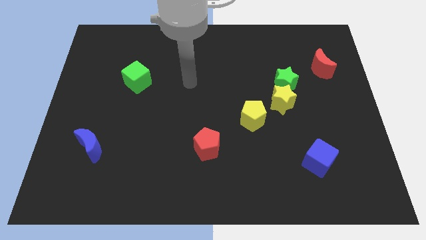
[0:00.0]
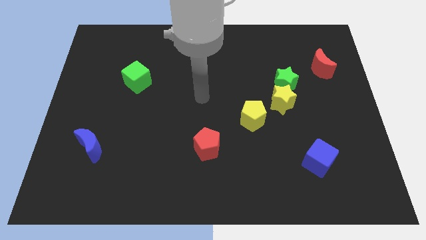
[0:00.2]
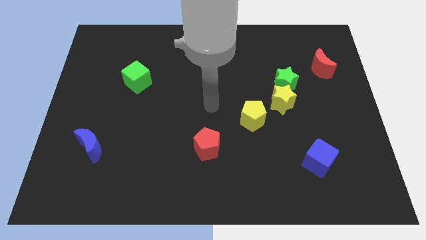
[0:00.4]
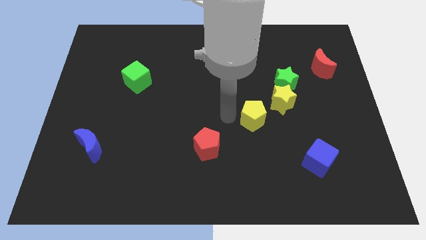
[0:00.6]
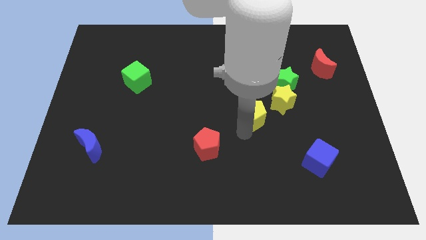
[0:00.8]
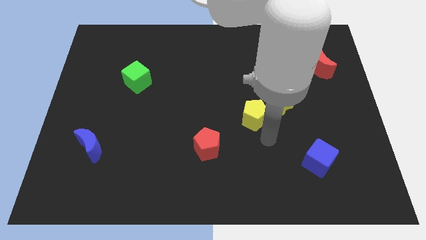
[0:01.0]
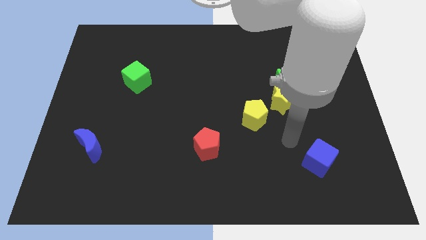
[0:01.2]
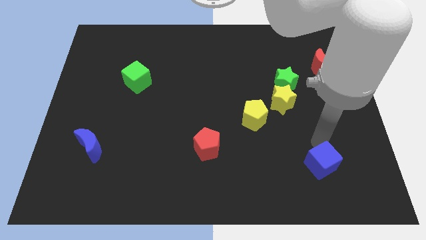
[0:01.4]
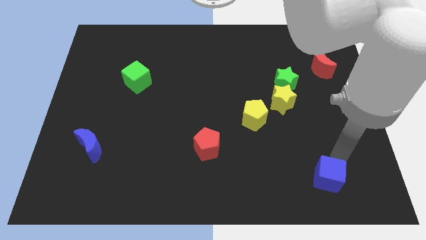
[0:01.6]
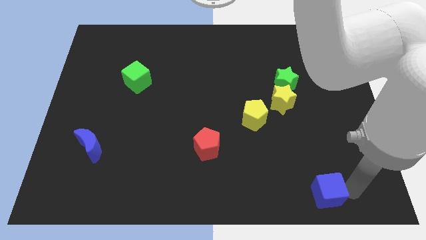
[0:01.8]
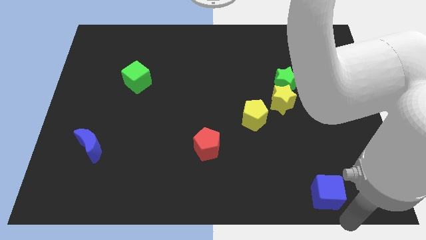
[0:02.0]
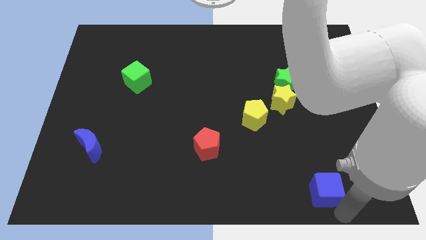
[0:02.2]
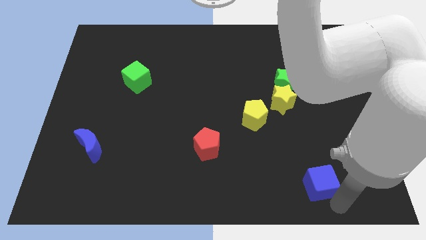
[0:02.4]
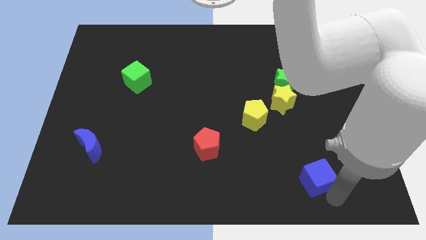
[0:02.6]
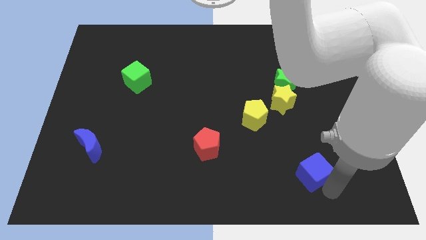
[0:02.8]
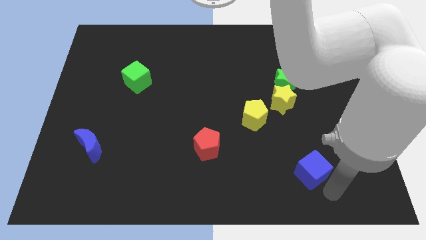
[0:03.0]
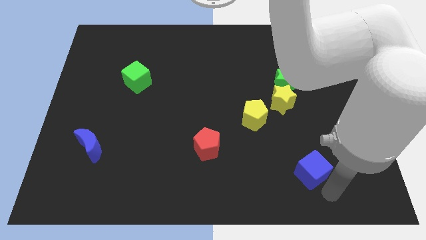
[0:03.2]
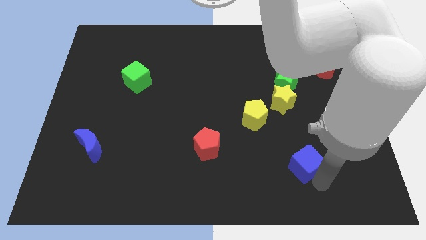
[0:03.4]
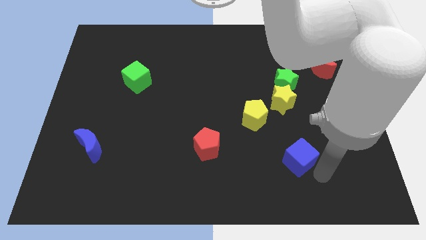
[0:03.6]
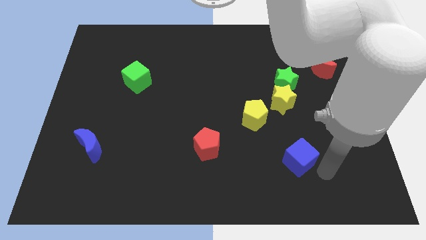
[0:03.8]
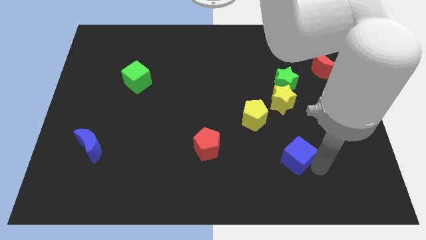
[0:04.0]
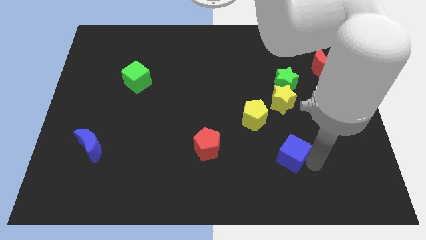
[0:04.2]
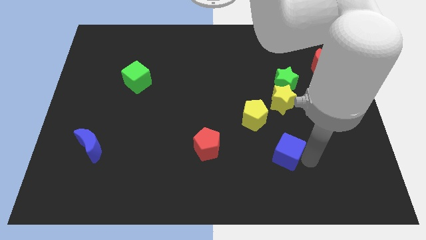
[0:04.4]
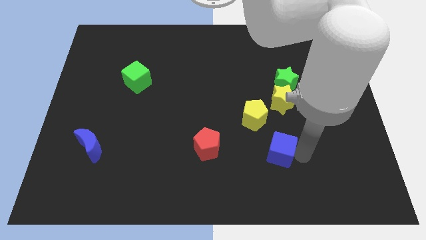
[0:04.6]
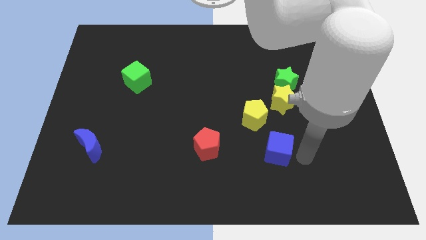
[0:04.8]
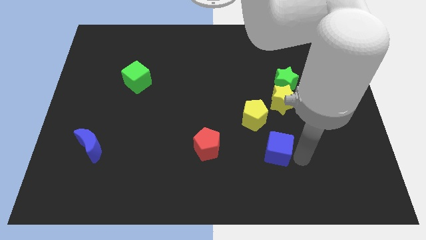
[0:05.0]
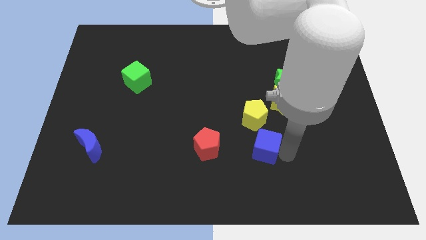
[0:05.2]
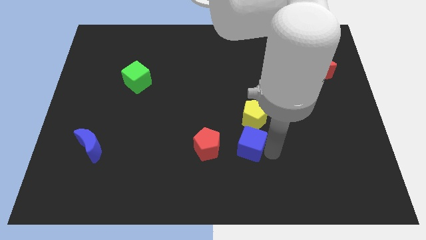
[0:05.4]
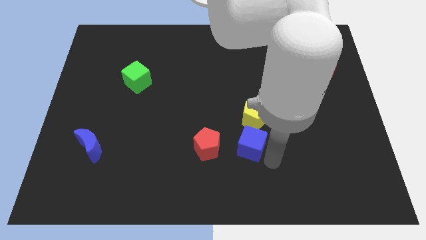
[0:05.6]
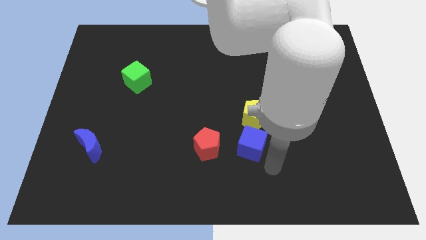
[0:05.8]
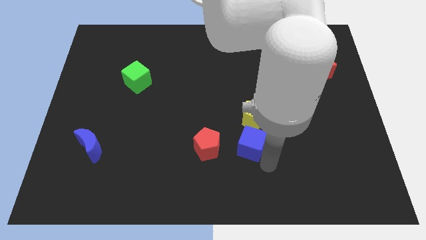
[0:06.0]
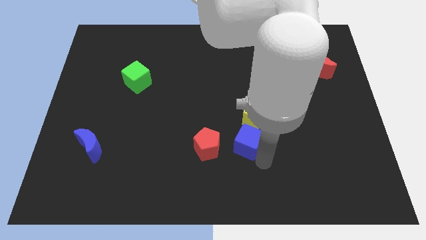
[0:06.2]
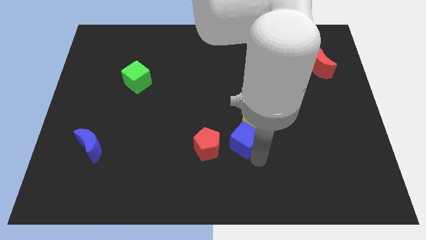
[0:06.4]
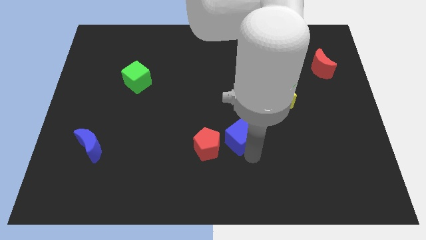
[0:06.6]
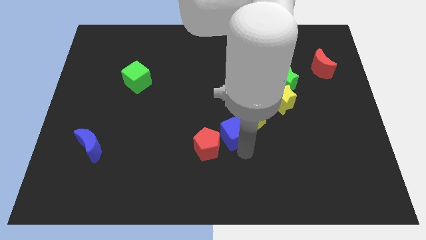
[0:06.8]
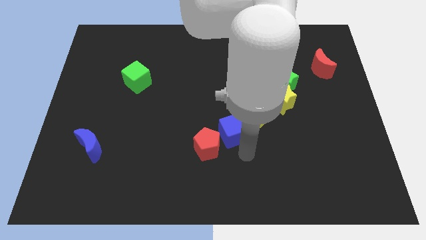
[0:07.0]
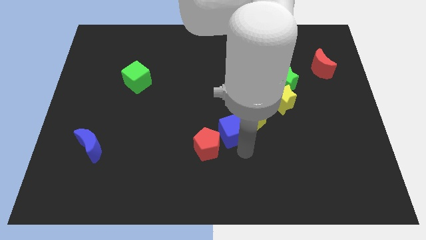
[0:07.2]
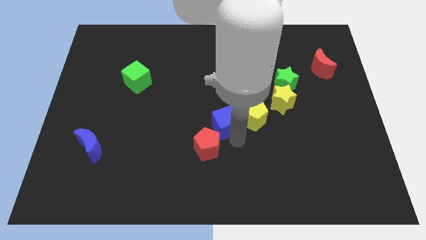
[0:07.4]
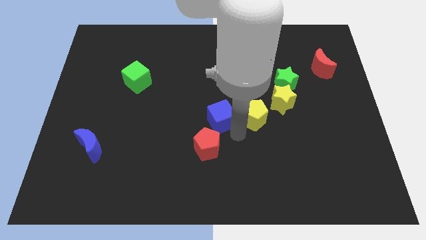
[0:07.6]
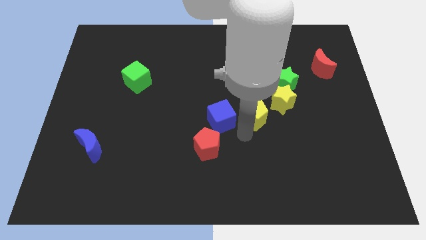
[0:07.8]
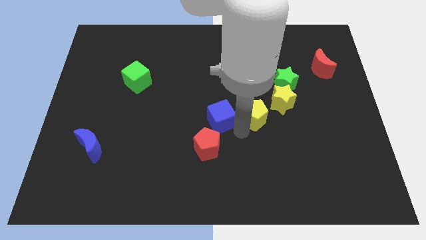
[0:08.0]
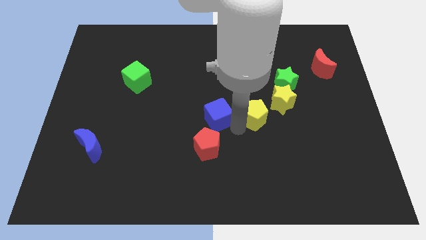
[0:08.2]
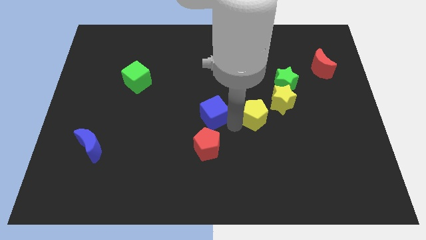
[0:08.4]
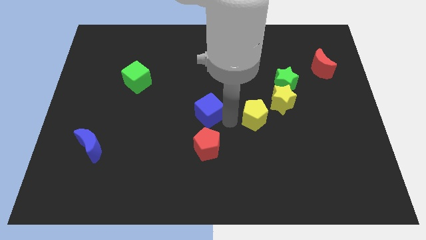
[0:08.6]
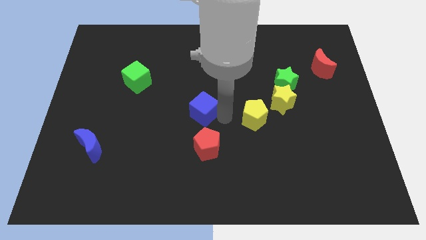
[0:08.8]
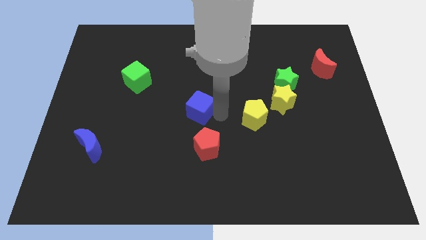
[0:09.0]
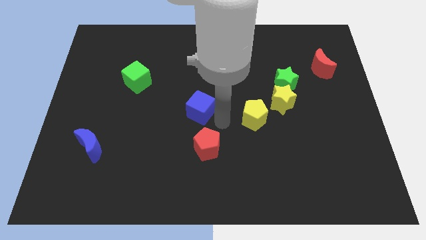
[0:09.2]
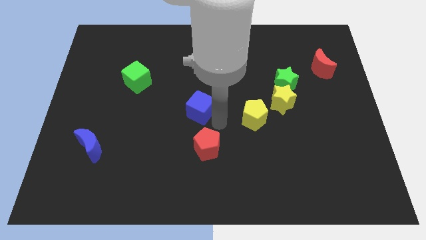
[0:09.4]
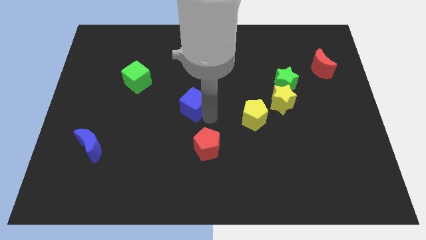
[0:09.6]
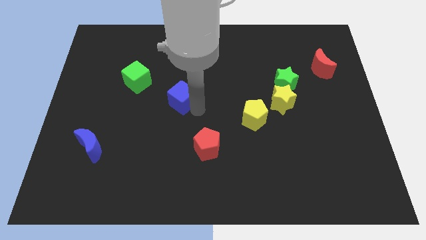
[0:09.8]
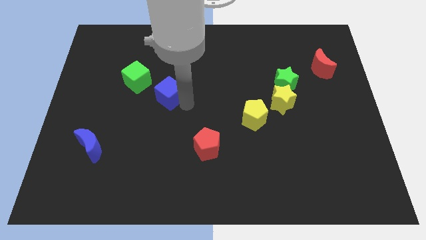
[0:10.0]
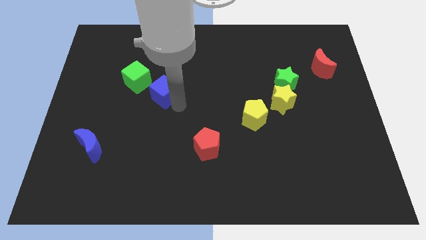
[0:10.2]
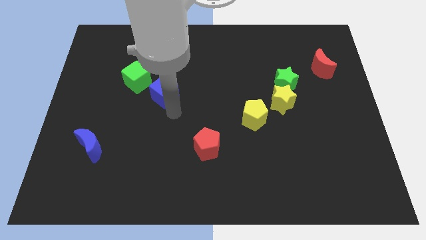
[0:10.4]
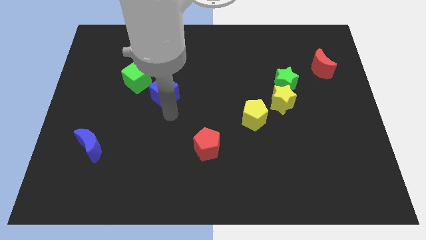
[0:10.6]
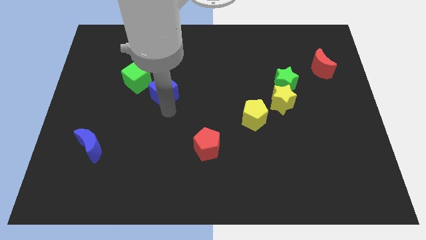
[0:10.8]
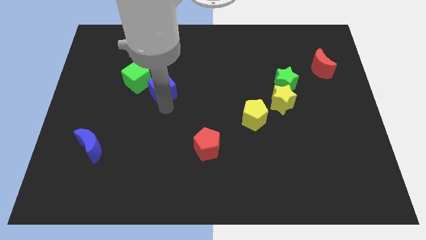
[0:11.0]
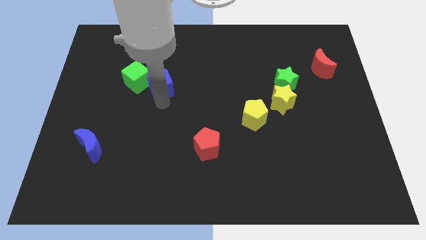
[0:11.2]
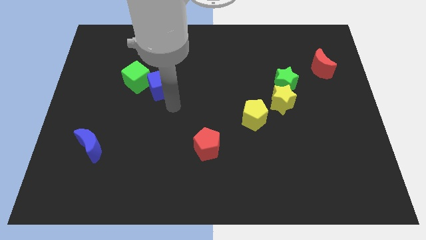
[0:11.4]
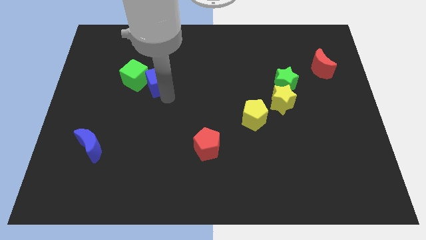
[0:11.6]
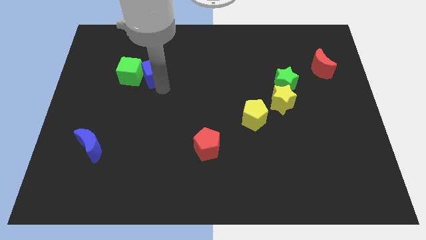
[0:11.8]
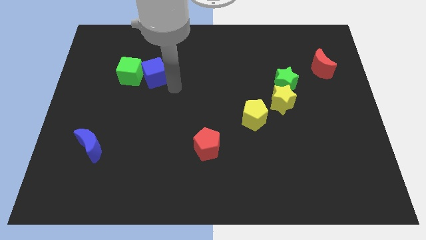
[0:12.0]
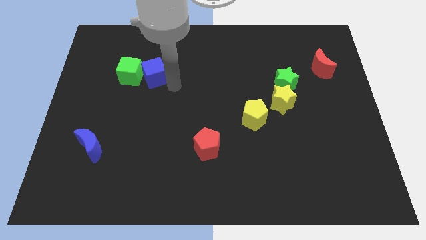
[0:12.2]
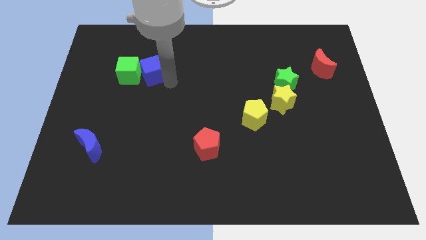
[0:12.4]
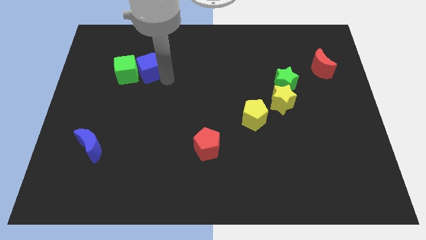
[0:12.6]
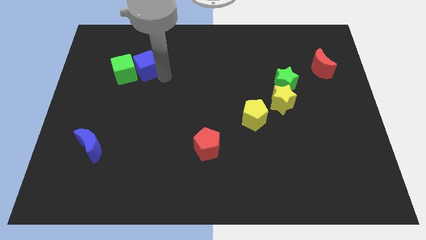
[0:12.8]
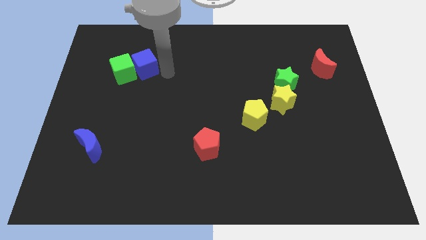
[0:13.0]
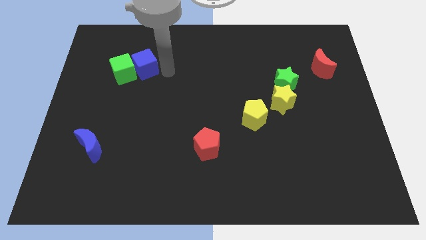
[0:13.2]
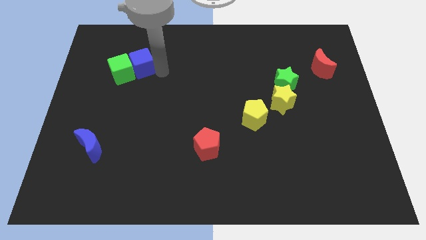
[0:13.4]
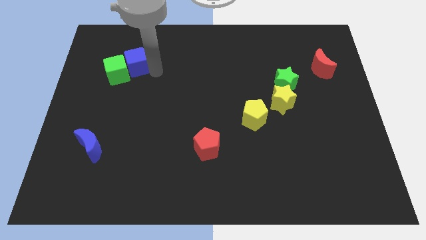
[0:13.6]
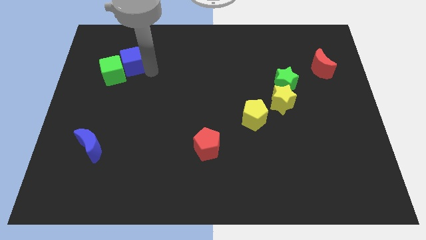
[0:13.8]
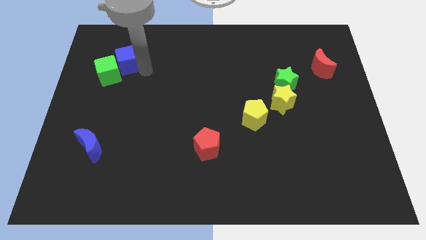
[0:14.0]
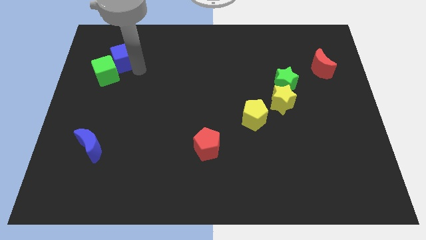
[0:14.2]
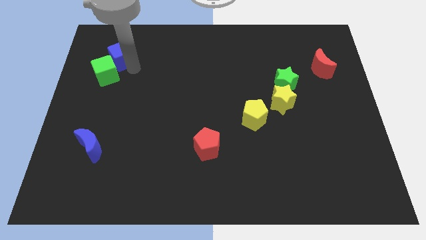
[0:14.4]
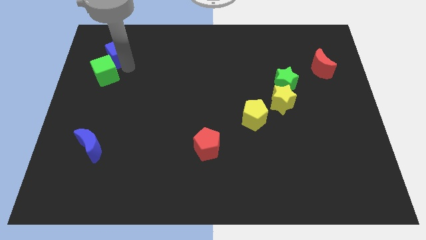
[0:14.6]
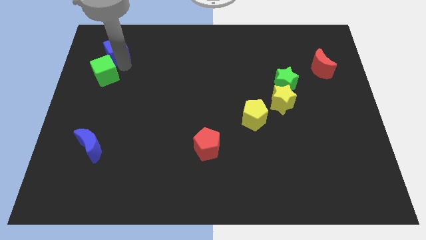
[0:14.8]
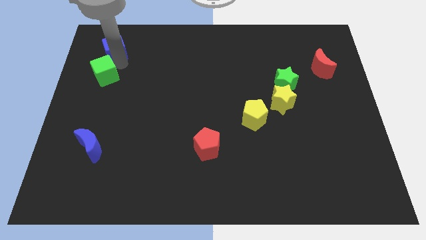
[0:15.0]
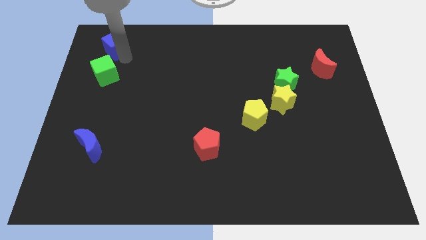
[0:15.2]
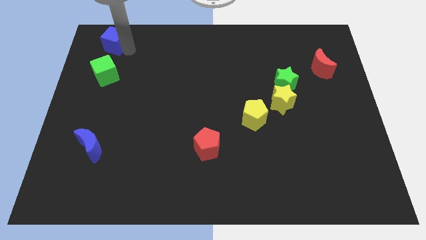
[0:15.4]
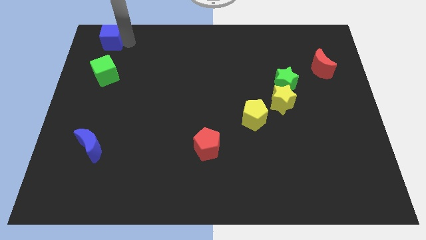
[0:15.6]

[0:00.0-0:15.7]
move the blue cube to the upper left corner
